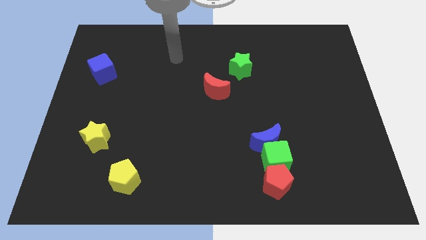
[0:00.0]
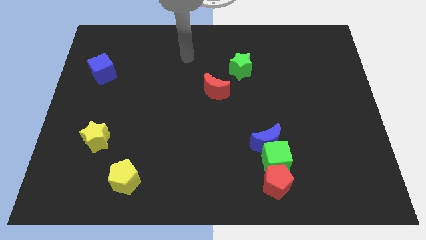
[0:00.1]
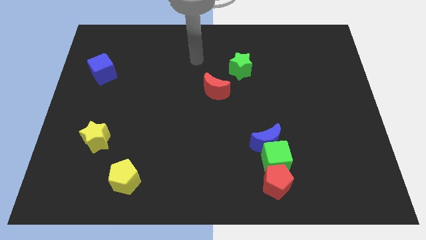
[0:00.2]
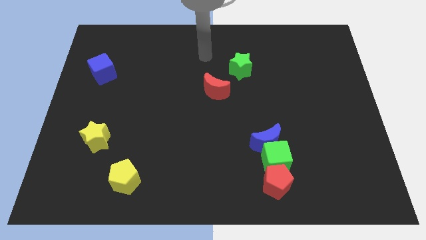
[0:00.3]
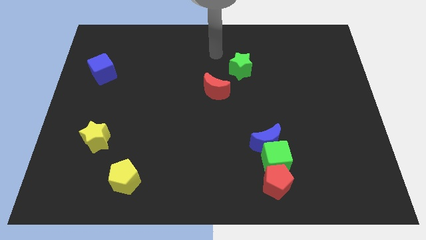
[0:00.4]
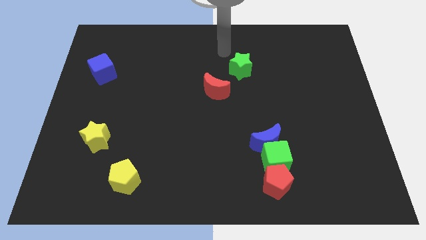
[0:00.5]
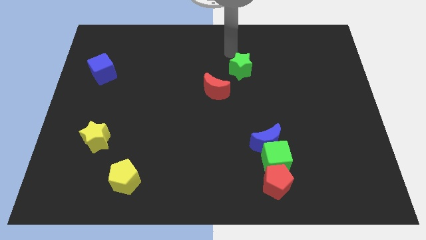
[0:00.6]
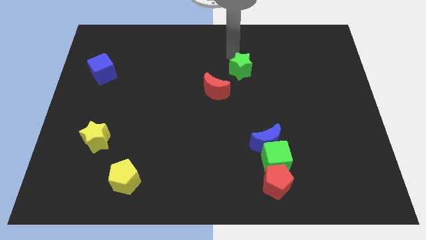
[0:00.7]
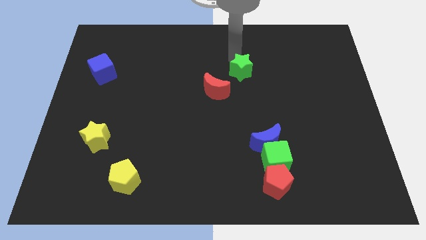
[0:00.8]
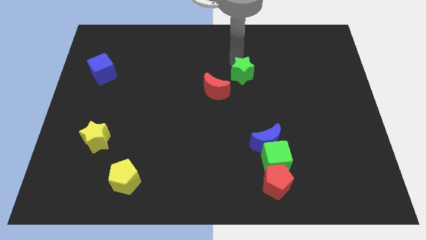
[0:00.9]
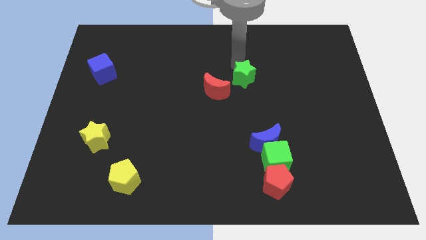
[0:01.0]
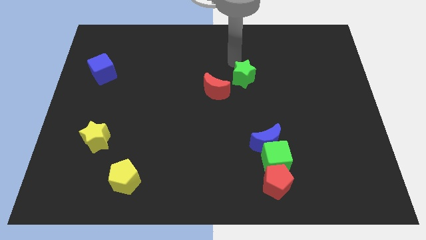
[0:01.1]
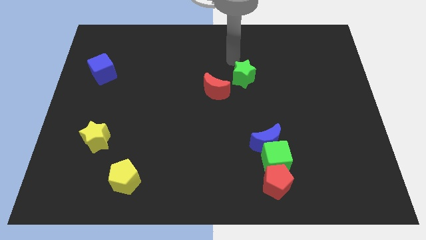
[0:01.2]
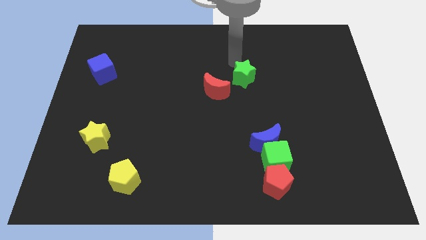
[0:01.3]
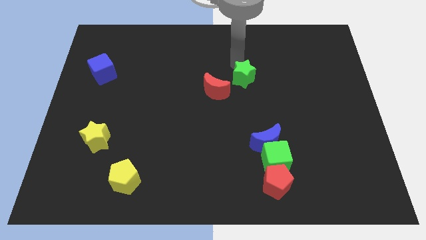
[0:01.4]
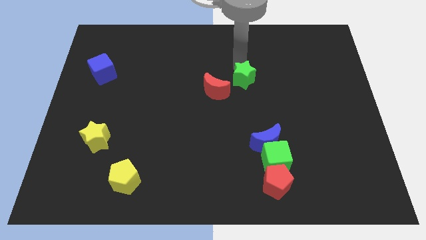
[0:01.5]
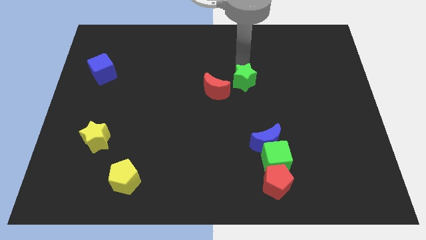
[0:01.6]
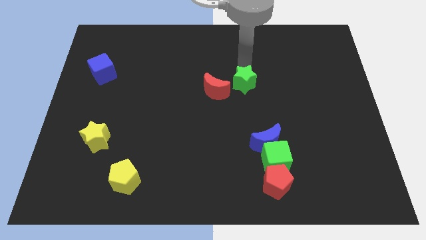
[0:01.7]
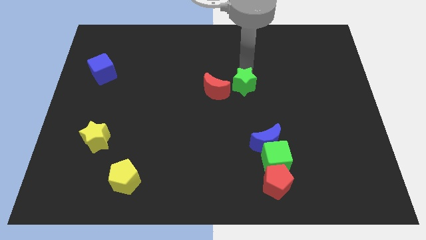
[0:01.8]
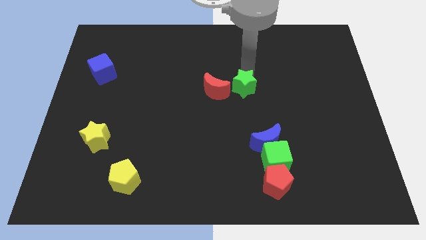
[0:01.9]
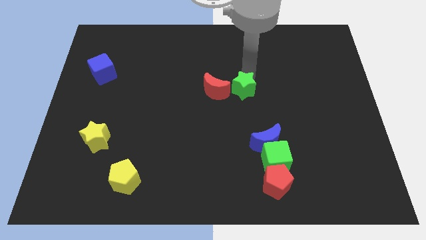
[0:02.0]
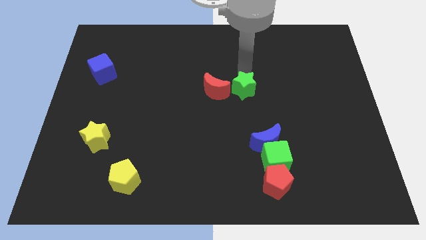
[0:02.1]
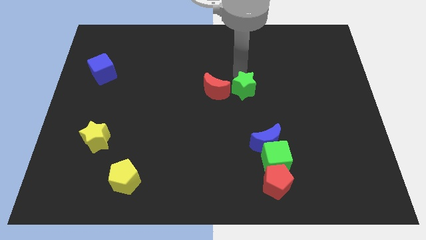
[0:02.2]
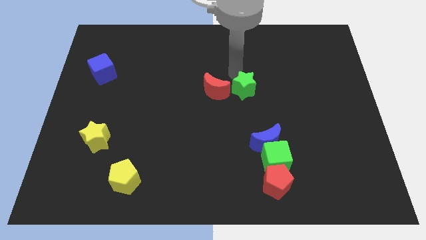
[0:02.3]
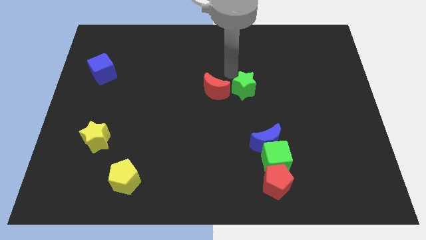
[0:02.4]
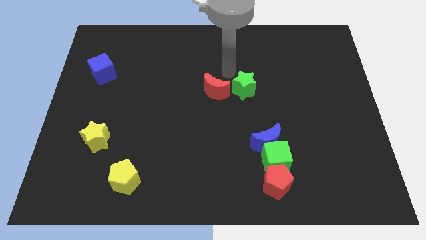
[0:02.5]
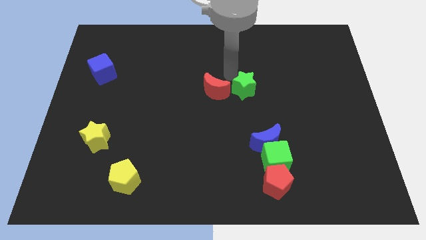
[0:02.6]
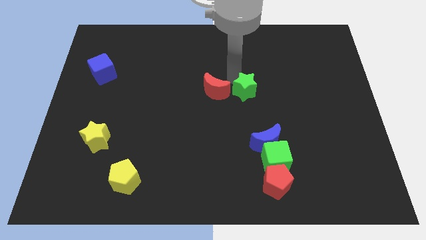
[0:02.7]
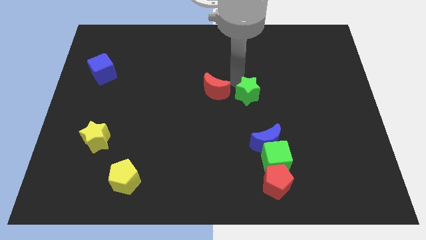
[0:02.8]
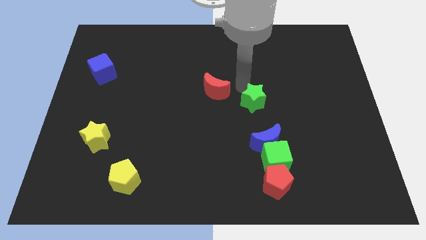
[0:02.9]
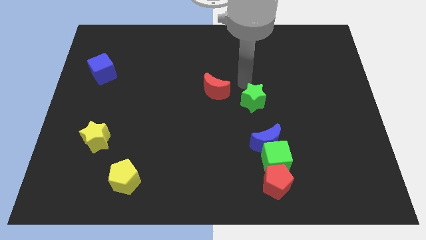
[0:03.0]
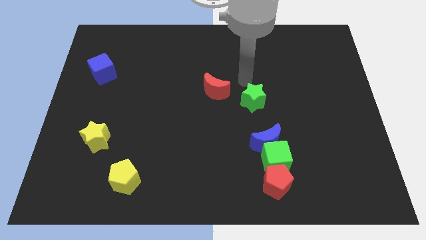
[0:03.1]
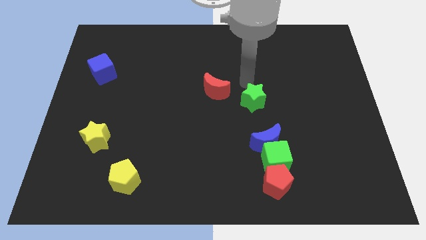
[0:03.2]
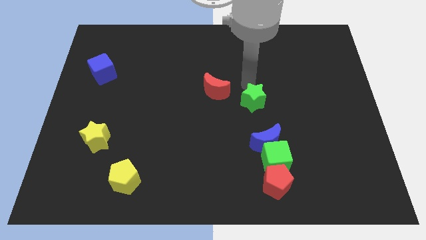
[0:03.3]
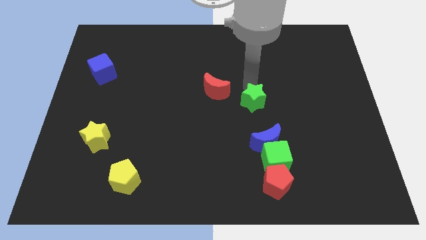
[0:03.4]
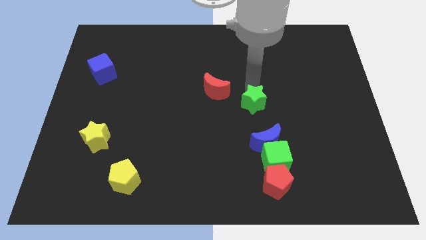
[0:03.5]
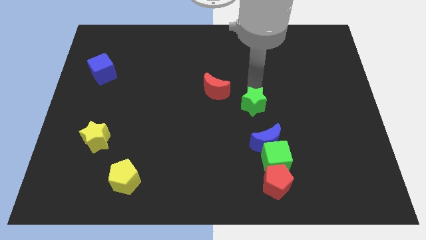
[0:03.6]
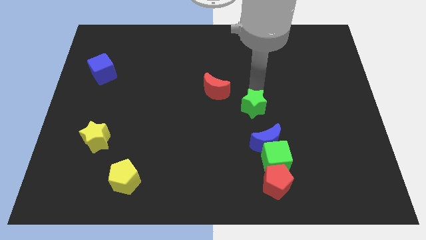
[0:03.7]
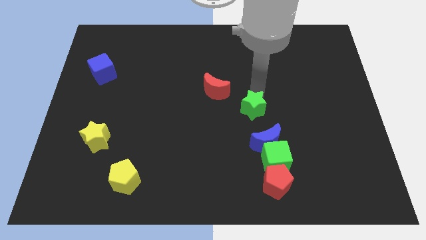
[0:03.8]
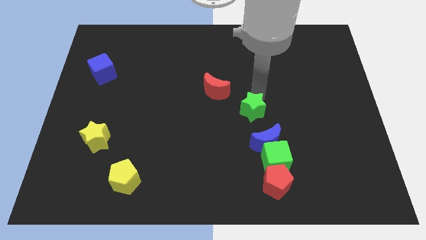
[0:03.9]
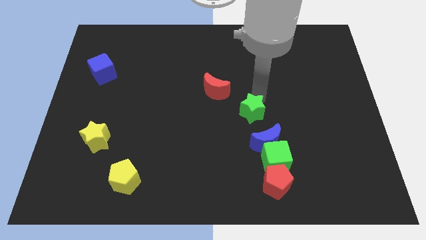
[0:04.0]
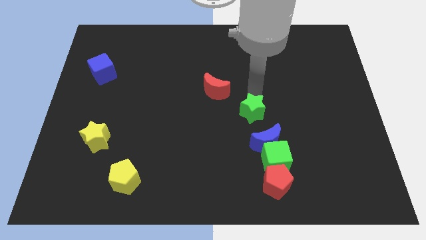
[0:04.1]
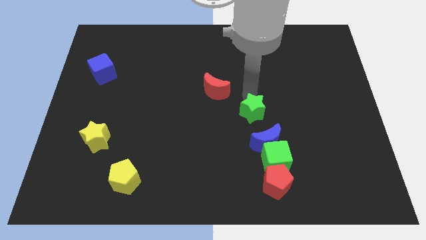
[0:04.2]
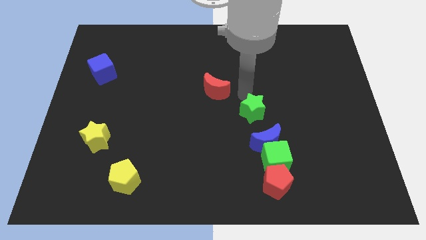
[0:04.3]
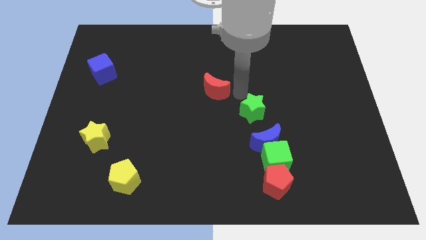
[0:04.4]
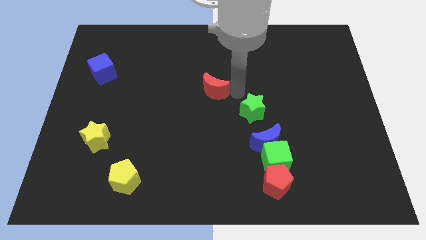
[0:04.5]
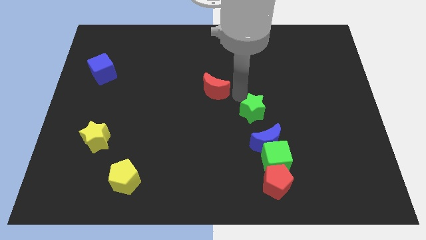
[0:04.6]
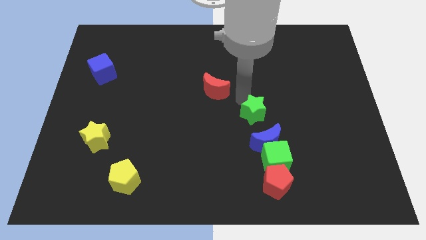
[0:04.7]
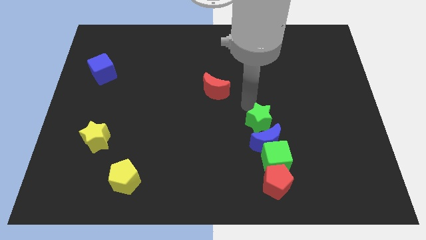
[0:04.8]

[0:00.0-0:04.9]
move the green star close to the blue moon

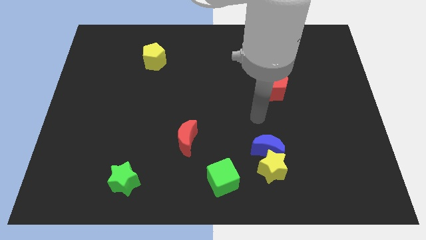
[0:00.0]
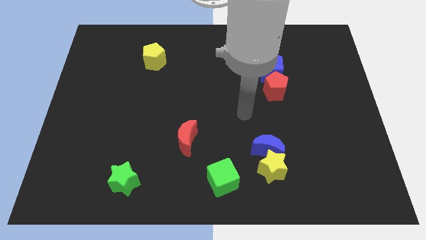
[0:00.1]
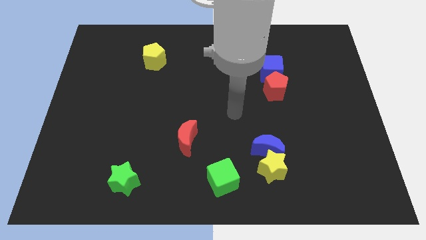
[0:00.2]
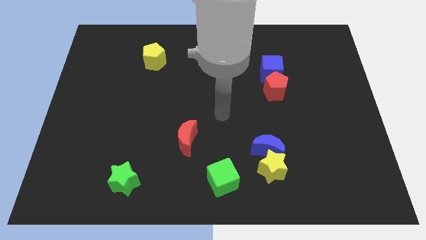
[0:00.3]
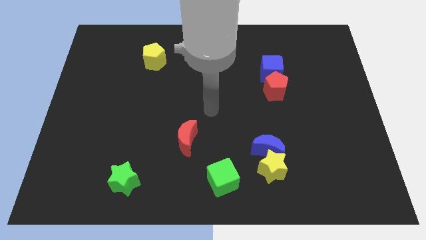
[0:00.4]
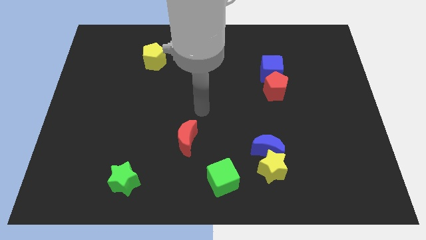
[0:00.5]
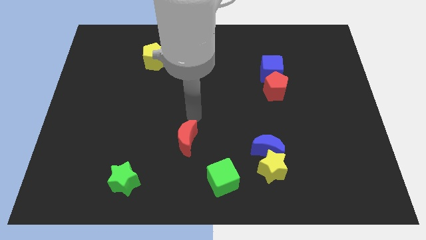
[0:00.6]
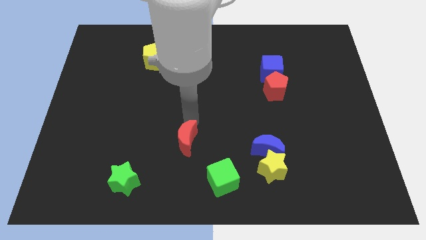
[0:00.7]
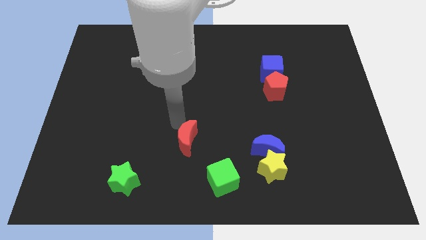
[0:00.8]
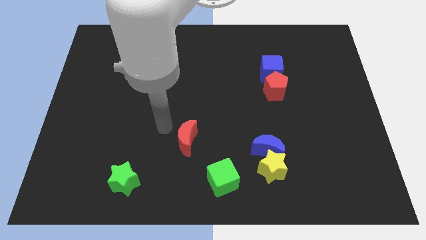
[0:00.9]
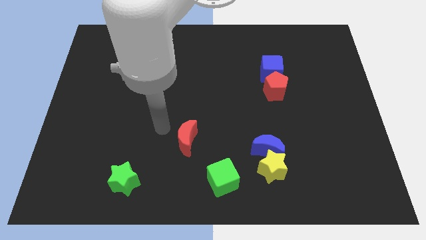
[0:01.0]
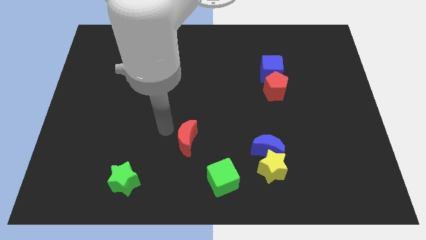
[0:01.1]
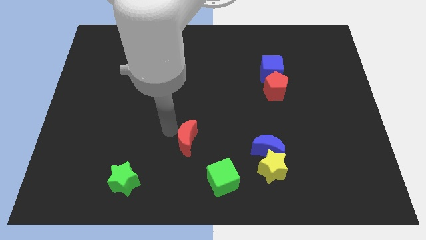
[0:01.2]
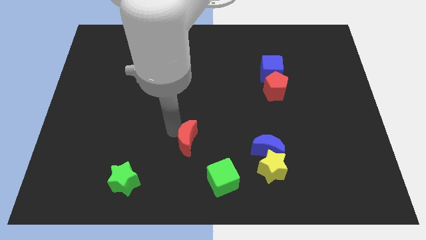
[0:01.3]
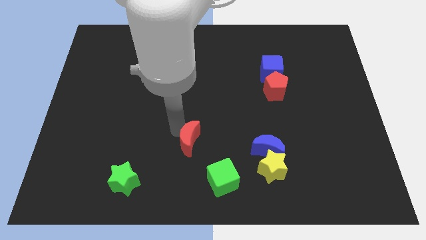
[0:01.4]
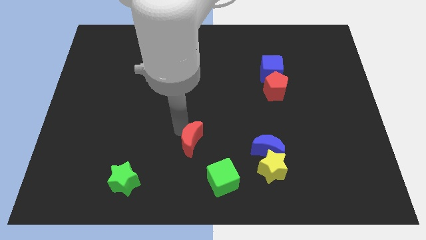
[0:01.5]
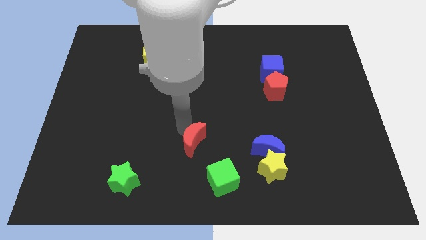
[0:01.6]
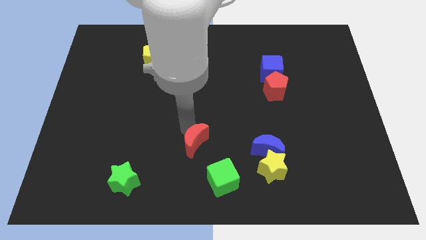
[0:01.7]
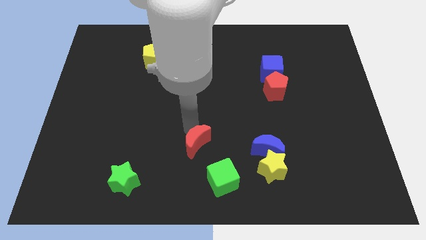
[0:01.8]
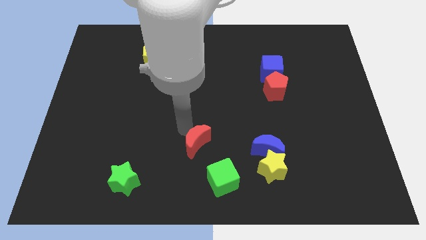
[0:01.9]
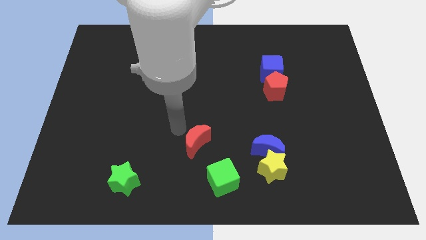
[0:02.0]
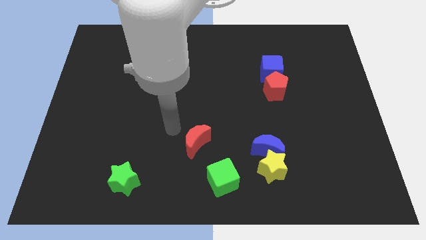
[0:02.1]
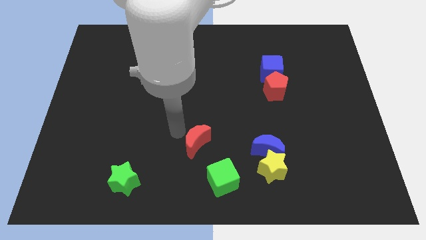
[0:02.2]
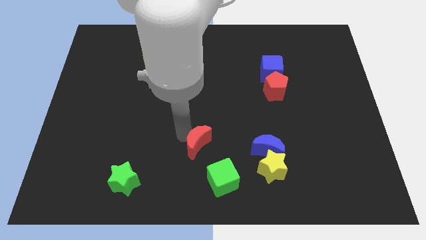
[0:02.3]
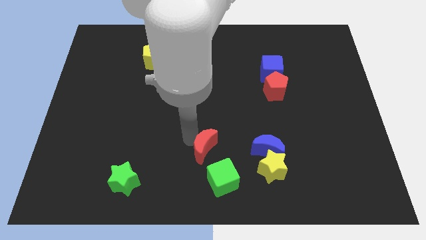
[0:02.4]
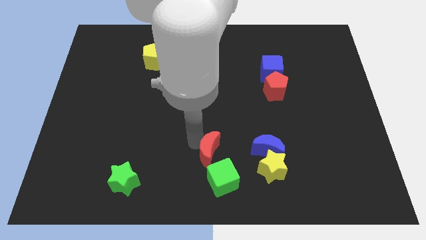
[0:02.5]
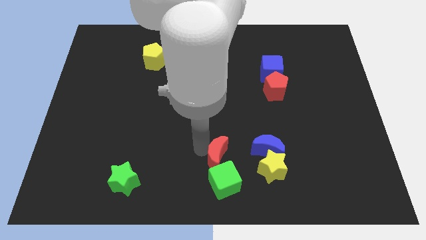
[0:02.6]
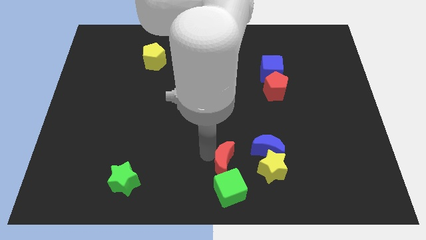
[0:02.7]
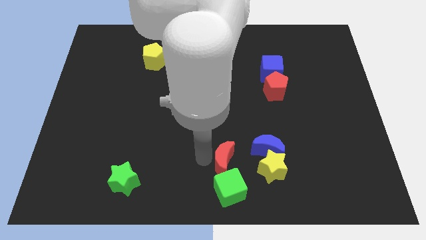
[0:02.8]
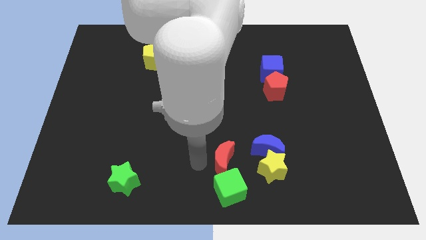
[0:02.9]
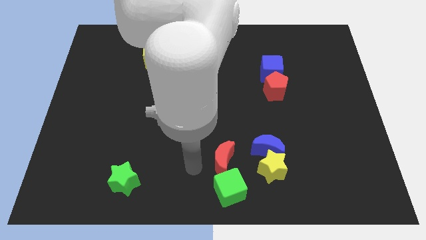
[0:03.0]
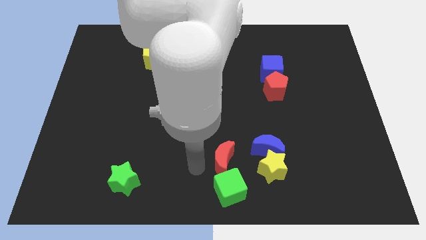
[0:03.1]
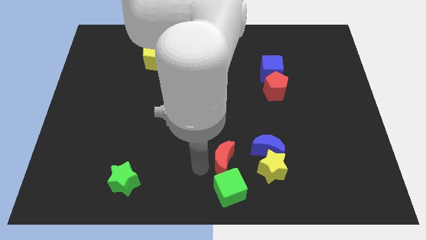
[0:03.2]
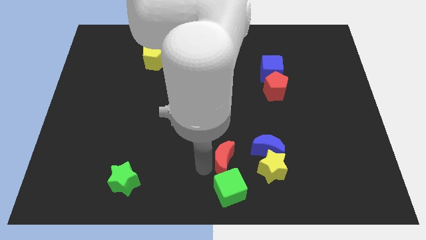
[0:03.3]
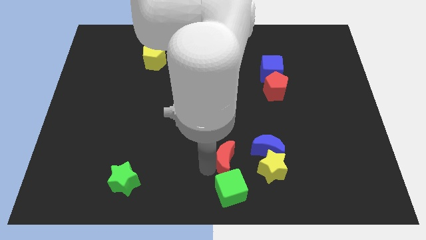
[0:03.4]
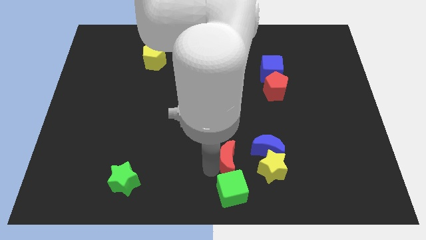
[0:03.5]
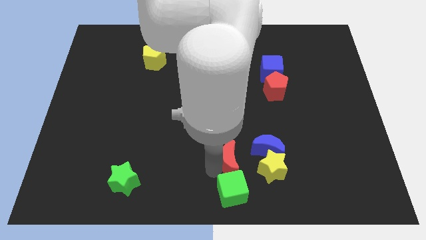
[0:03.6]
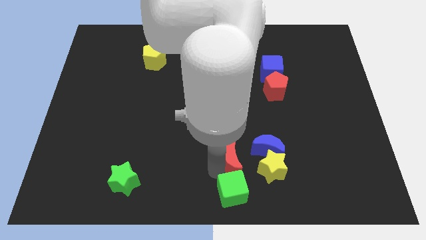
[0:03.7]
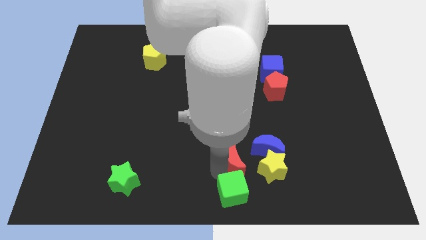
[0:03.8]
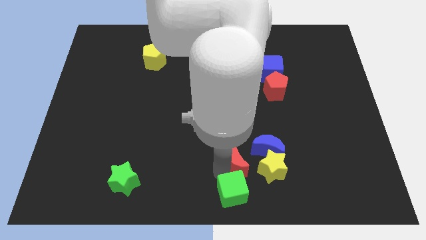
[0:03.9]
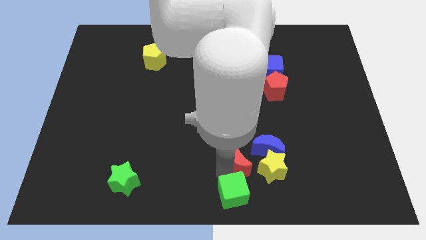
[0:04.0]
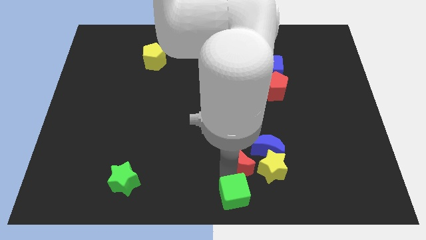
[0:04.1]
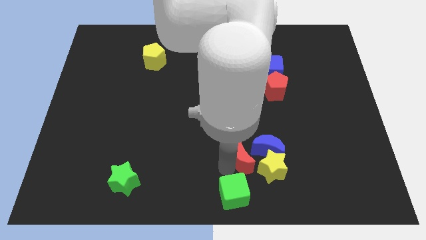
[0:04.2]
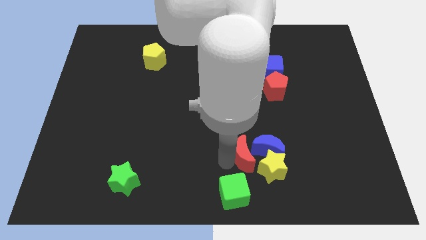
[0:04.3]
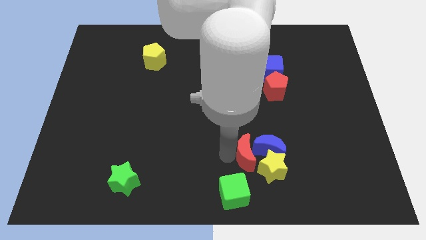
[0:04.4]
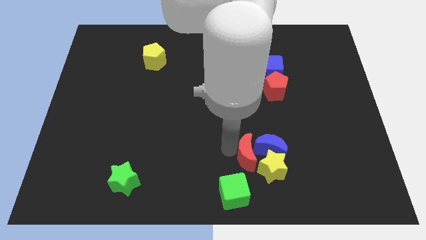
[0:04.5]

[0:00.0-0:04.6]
slide the red moon close to the yellow star
